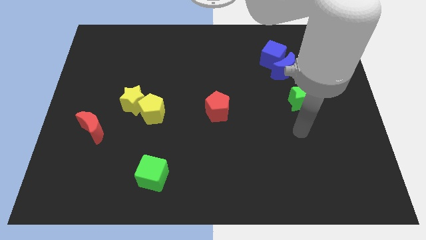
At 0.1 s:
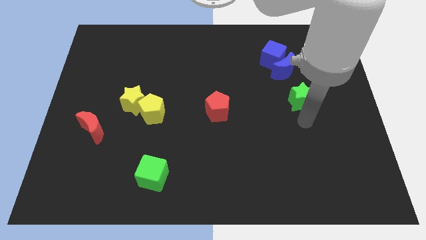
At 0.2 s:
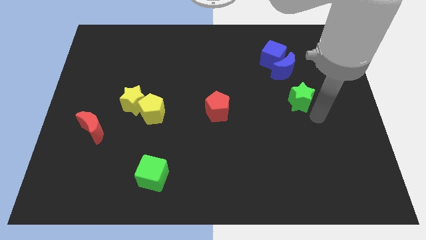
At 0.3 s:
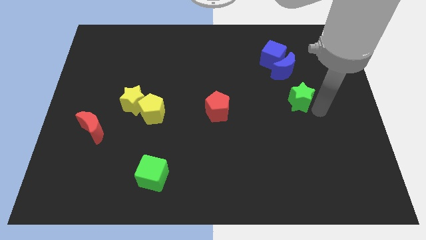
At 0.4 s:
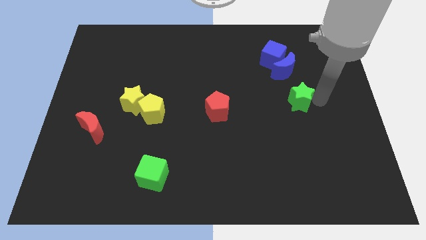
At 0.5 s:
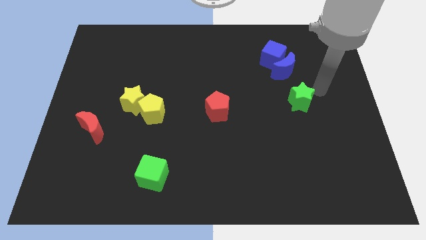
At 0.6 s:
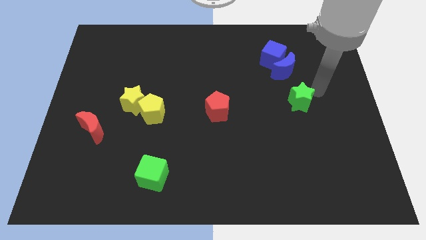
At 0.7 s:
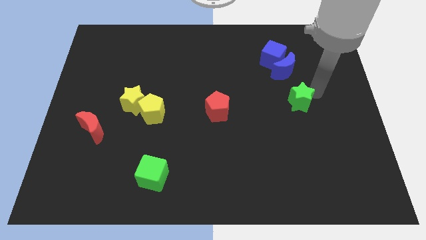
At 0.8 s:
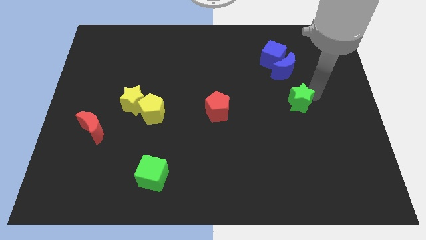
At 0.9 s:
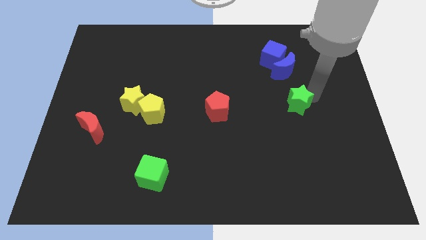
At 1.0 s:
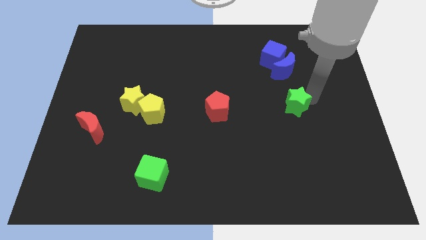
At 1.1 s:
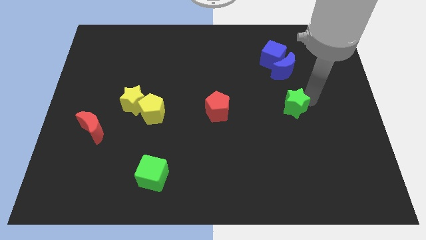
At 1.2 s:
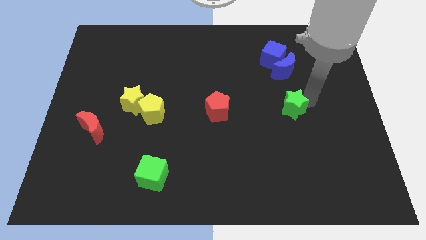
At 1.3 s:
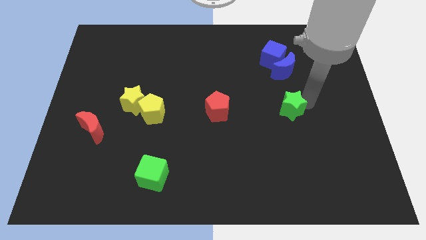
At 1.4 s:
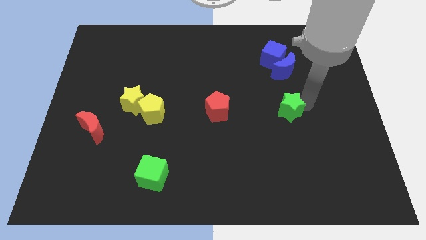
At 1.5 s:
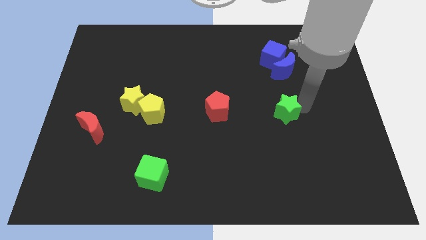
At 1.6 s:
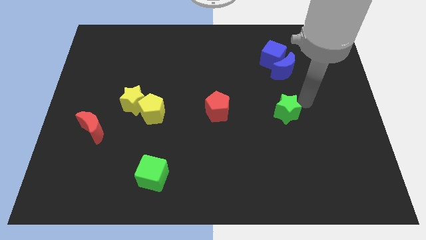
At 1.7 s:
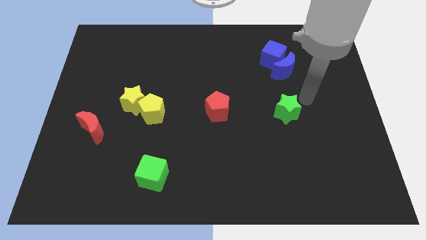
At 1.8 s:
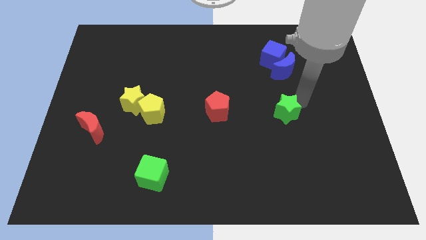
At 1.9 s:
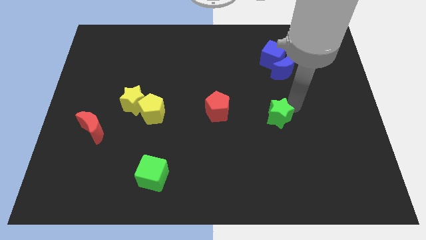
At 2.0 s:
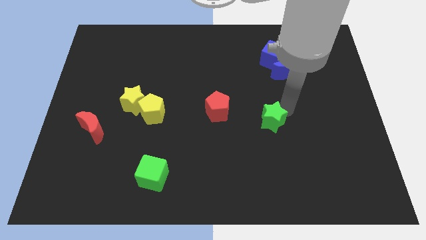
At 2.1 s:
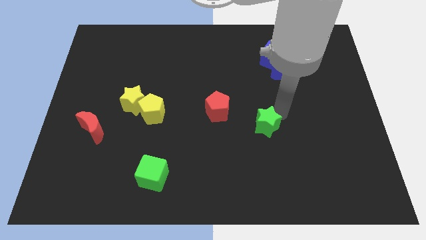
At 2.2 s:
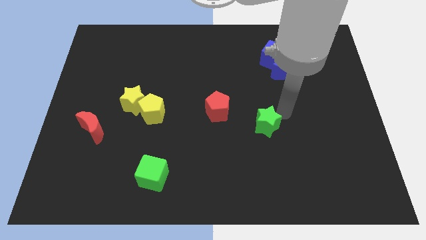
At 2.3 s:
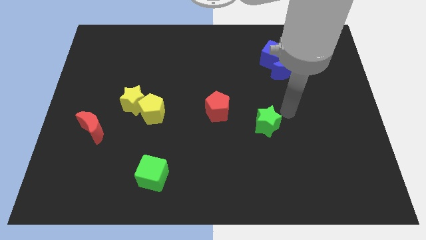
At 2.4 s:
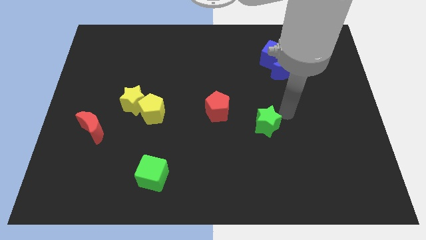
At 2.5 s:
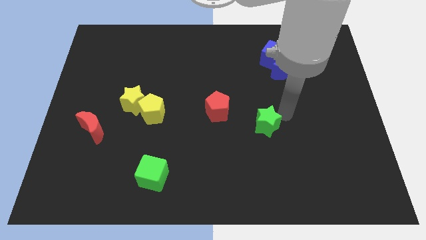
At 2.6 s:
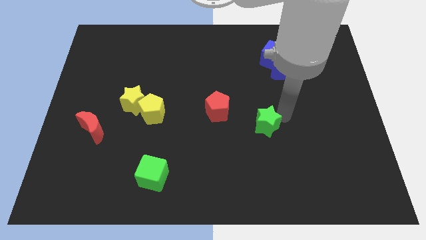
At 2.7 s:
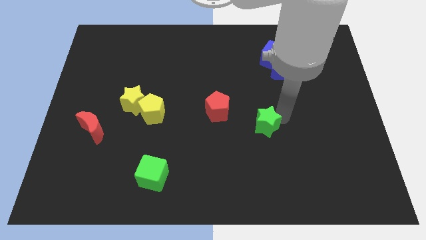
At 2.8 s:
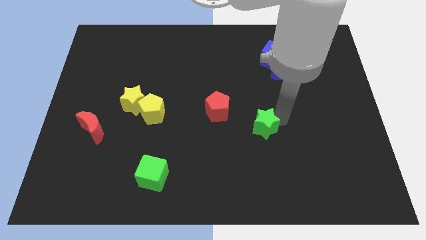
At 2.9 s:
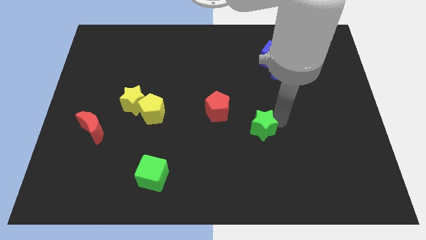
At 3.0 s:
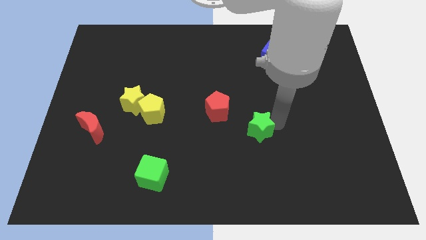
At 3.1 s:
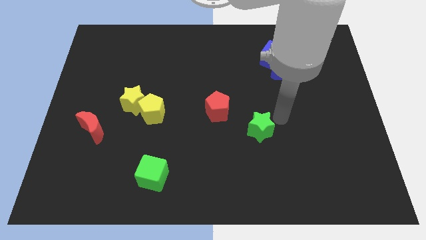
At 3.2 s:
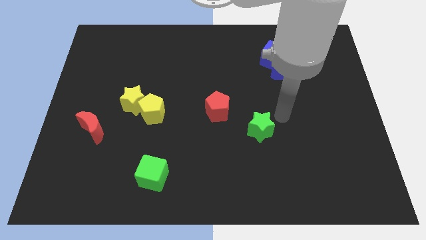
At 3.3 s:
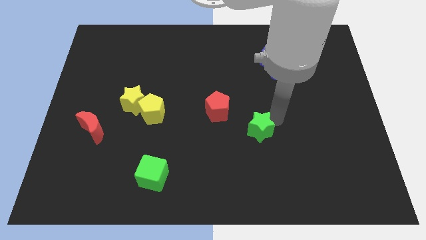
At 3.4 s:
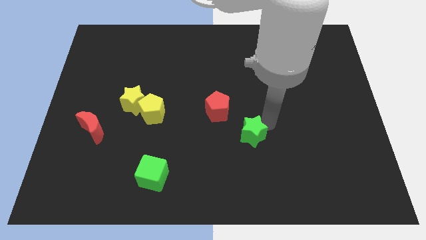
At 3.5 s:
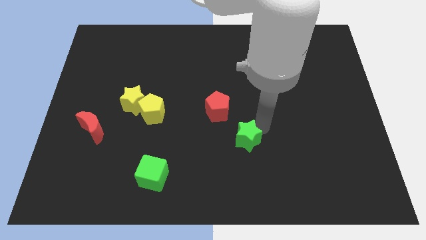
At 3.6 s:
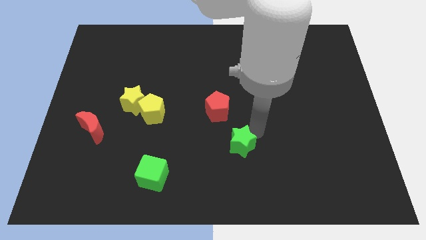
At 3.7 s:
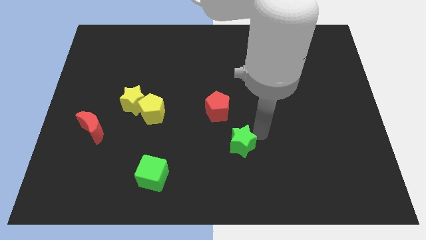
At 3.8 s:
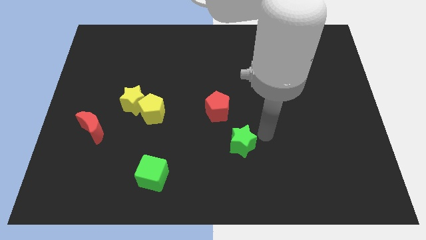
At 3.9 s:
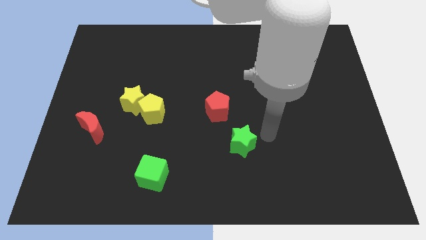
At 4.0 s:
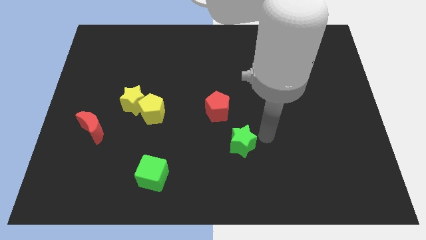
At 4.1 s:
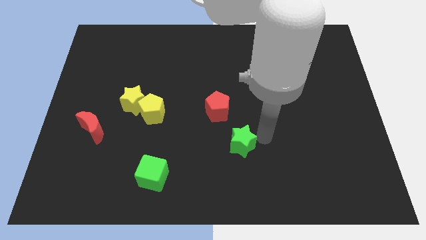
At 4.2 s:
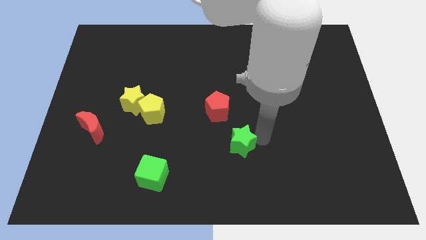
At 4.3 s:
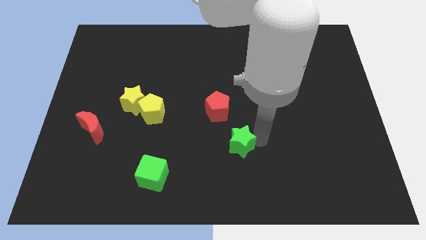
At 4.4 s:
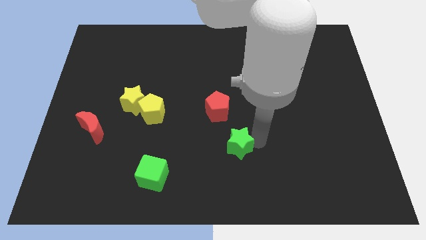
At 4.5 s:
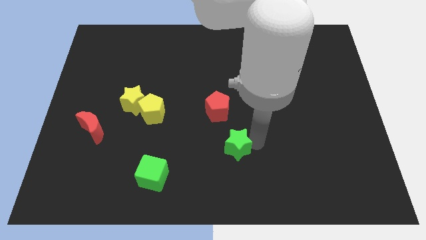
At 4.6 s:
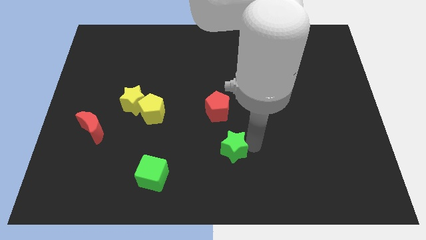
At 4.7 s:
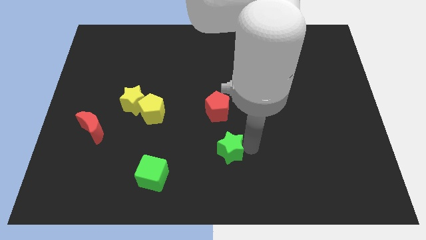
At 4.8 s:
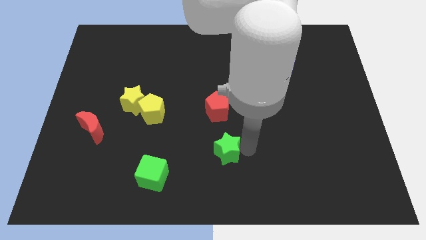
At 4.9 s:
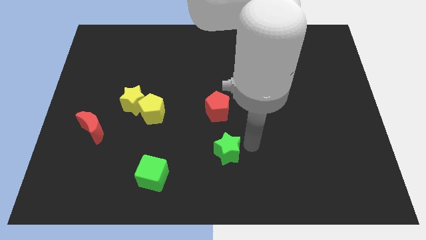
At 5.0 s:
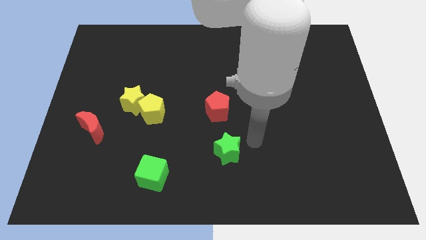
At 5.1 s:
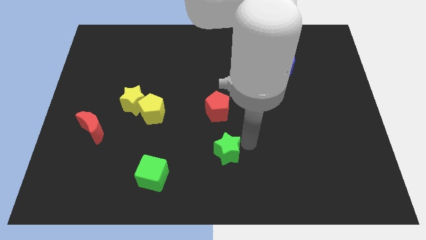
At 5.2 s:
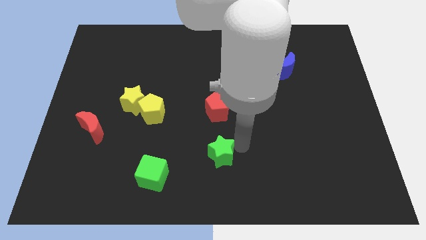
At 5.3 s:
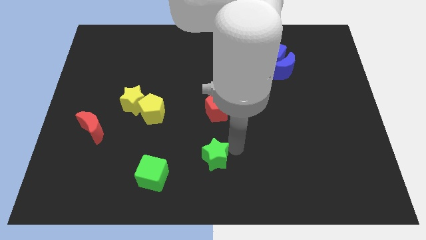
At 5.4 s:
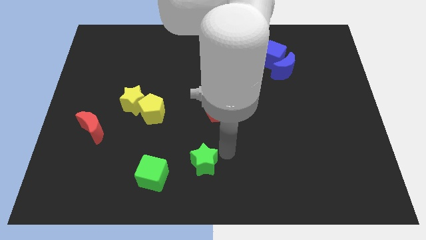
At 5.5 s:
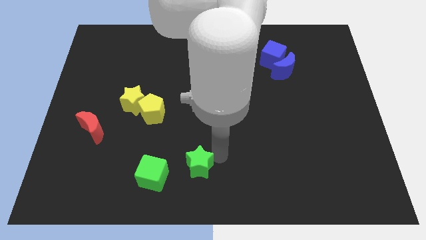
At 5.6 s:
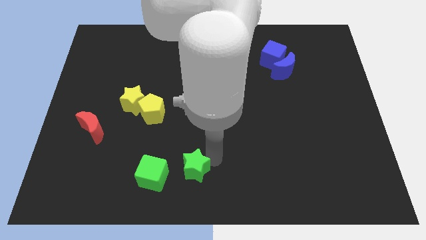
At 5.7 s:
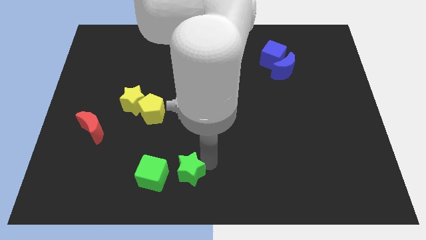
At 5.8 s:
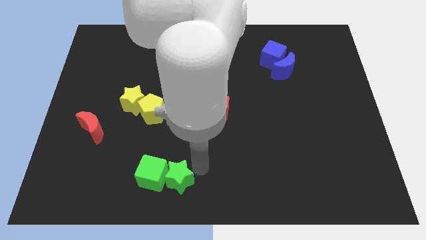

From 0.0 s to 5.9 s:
put the green star to the green cube

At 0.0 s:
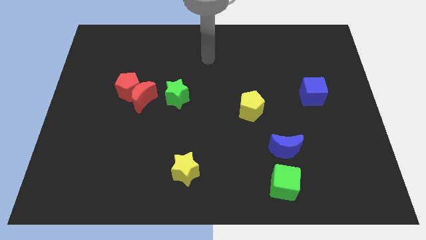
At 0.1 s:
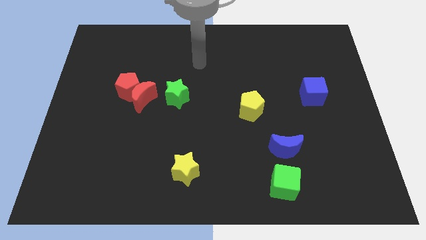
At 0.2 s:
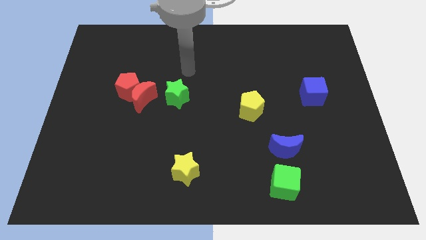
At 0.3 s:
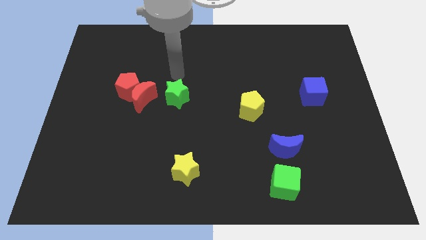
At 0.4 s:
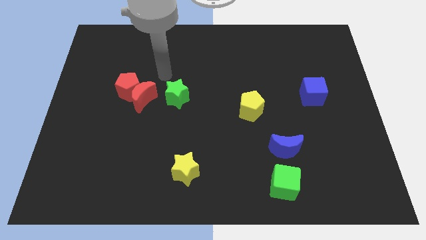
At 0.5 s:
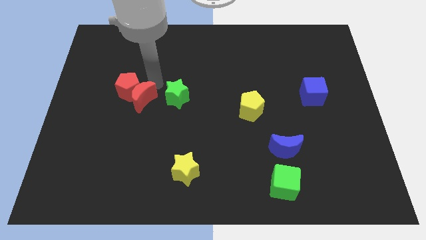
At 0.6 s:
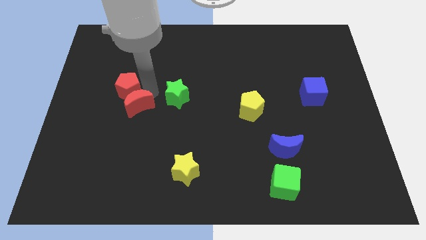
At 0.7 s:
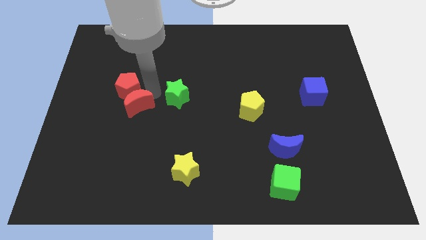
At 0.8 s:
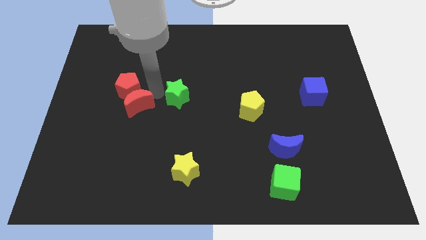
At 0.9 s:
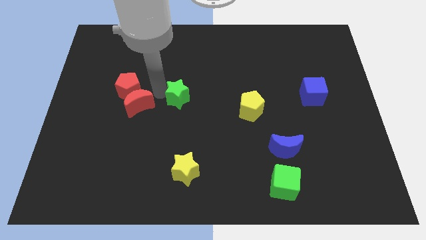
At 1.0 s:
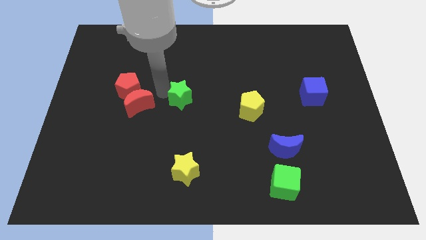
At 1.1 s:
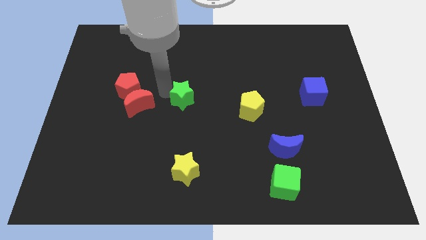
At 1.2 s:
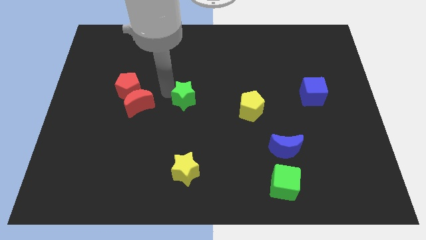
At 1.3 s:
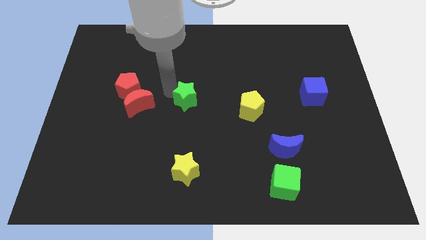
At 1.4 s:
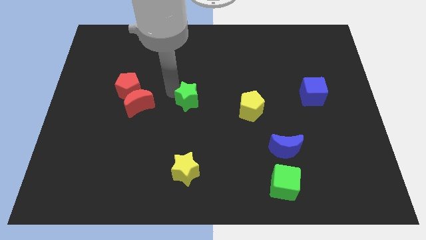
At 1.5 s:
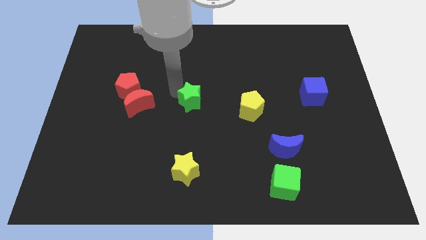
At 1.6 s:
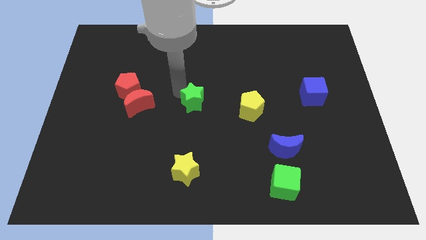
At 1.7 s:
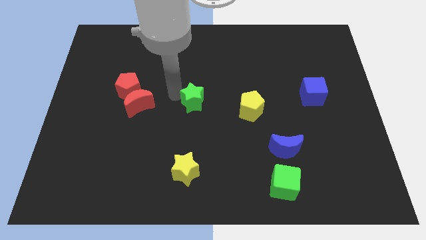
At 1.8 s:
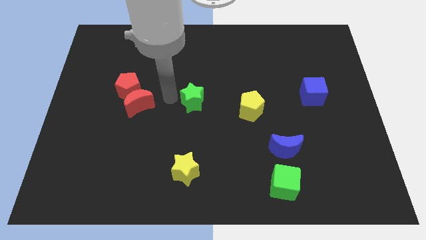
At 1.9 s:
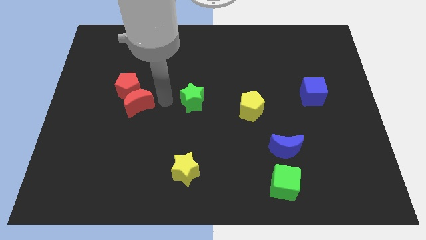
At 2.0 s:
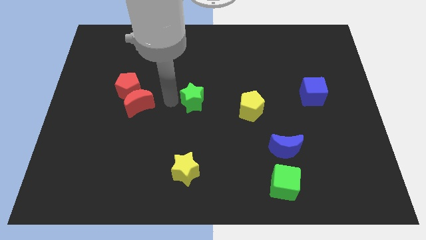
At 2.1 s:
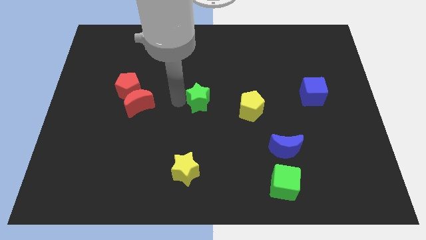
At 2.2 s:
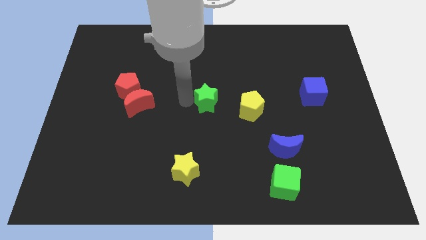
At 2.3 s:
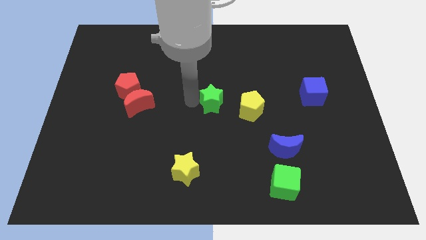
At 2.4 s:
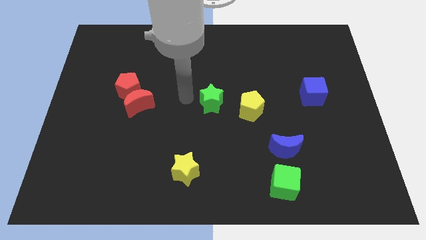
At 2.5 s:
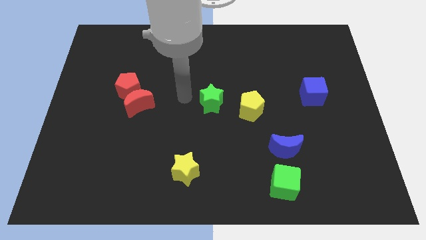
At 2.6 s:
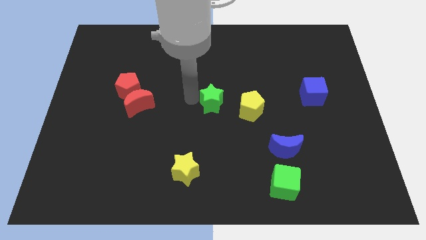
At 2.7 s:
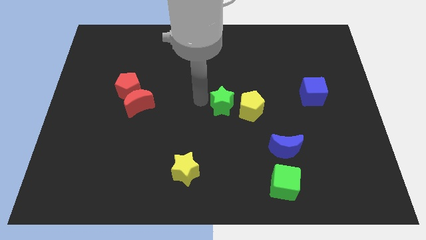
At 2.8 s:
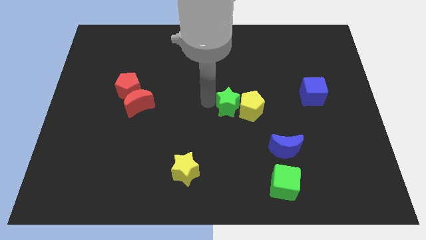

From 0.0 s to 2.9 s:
push the green star towards the yellow pentagon
